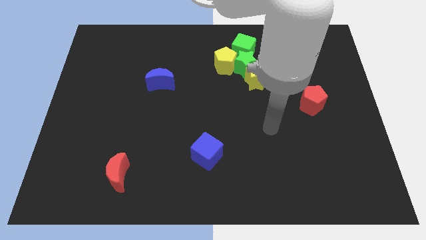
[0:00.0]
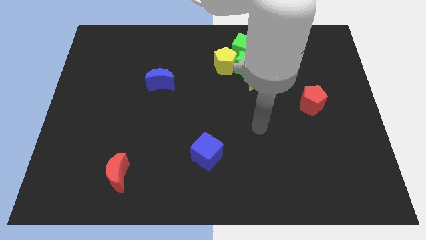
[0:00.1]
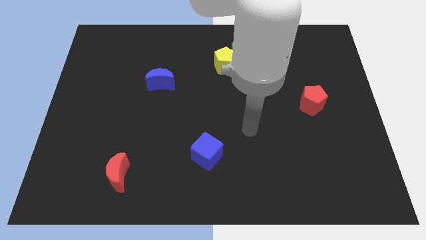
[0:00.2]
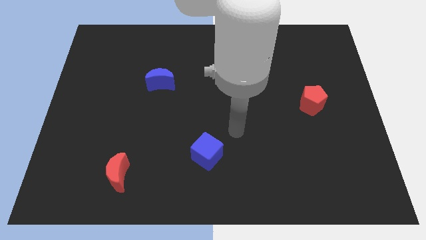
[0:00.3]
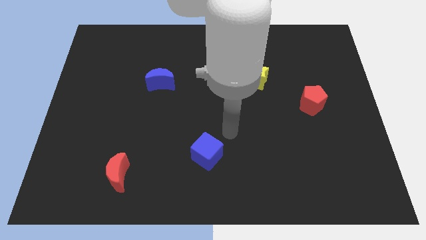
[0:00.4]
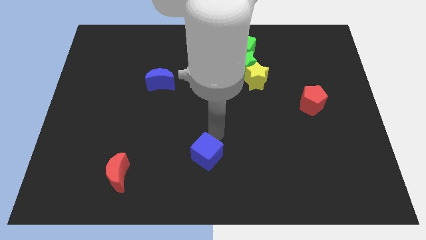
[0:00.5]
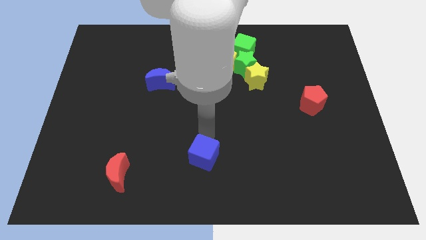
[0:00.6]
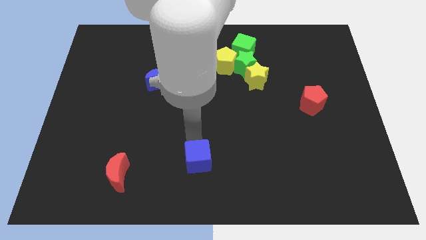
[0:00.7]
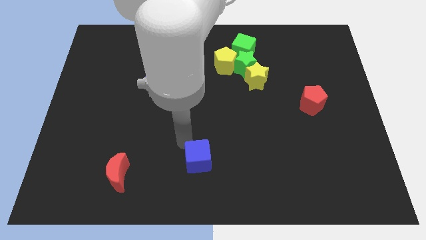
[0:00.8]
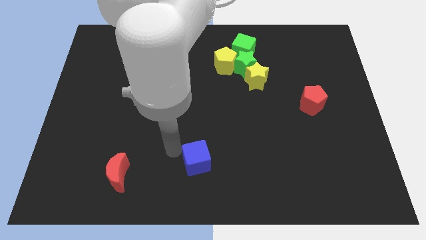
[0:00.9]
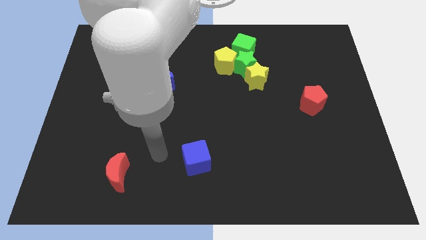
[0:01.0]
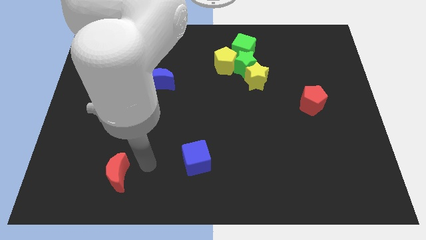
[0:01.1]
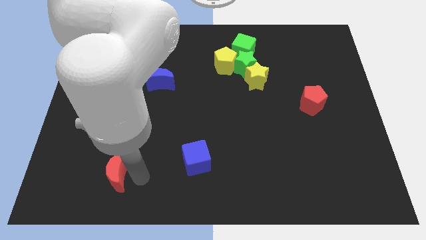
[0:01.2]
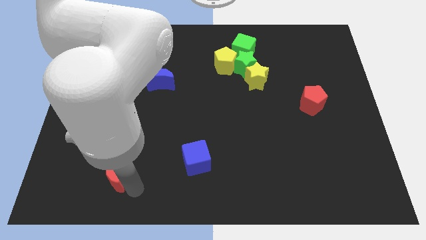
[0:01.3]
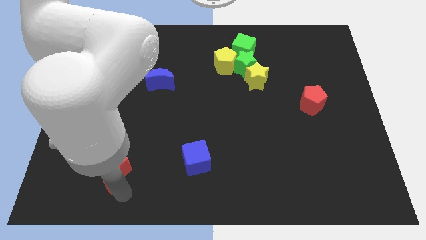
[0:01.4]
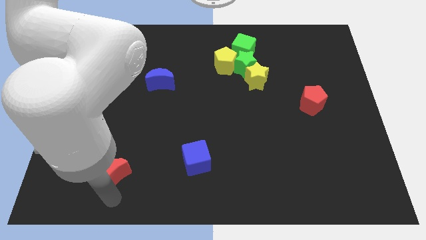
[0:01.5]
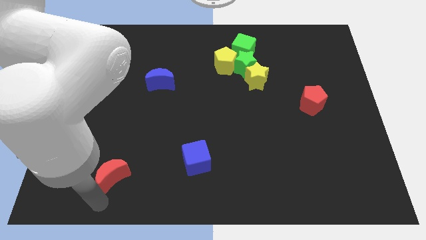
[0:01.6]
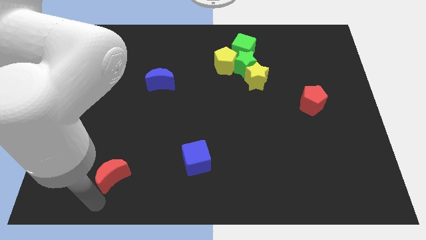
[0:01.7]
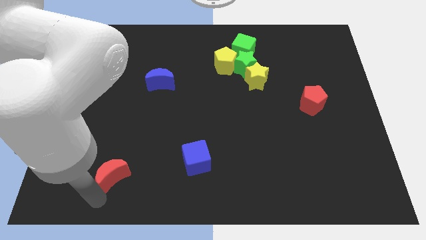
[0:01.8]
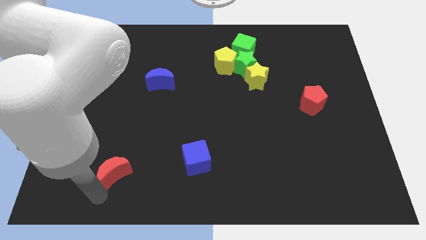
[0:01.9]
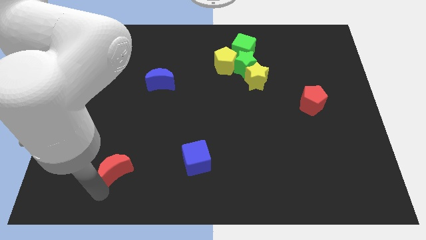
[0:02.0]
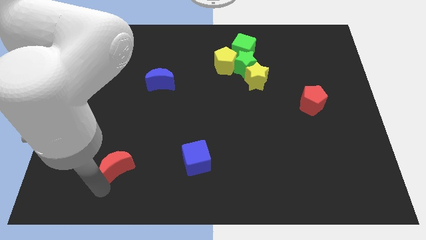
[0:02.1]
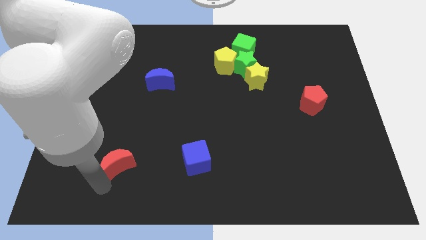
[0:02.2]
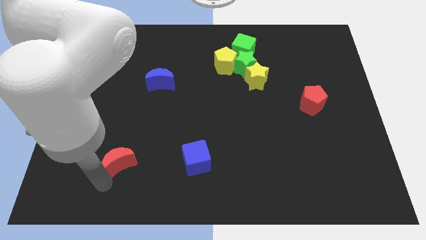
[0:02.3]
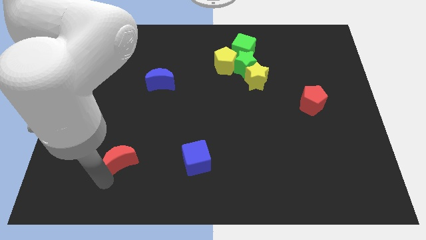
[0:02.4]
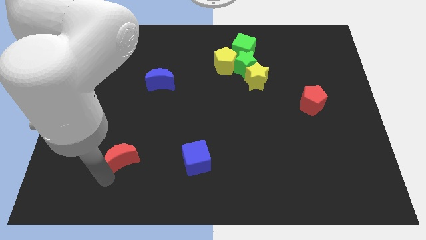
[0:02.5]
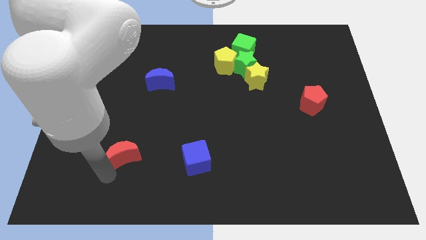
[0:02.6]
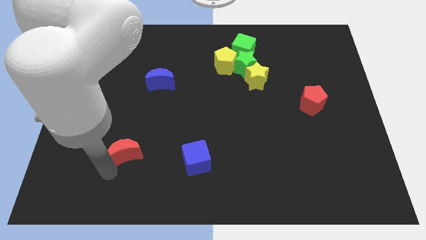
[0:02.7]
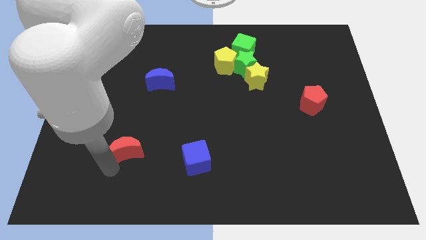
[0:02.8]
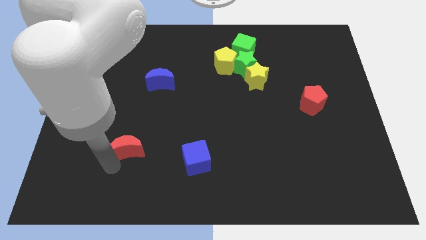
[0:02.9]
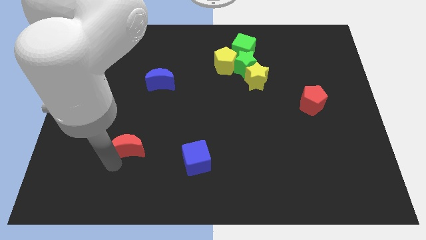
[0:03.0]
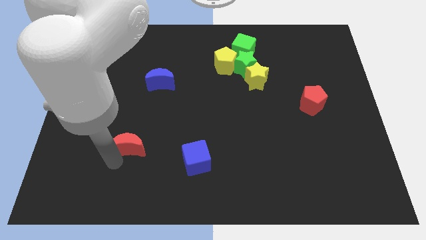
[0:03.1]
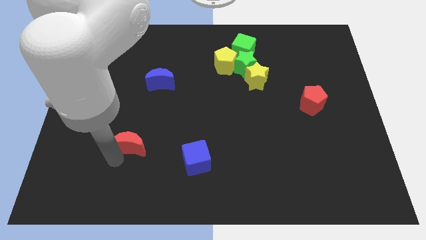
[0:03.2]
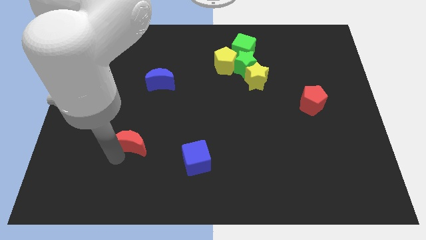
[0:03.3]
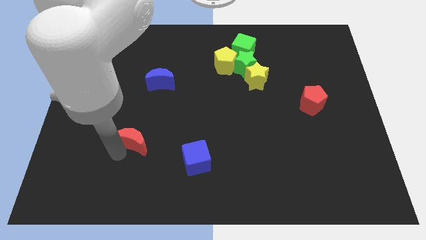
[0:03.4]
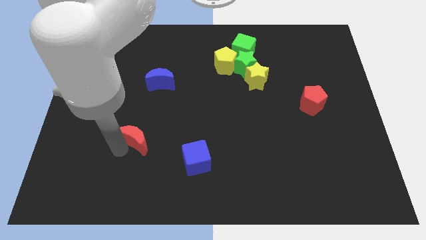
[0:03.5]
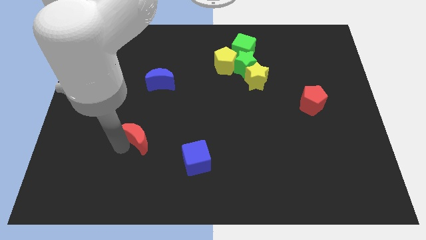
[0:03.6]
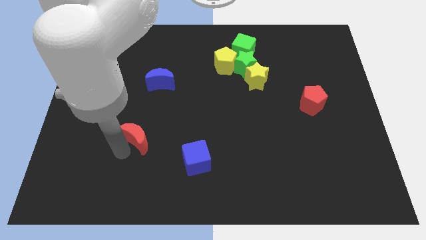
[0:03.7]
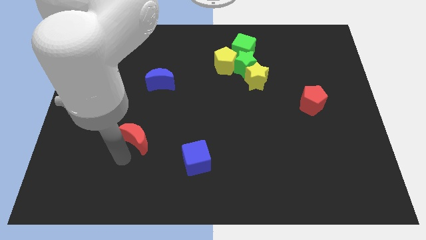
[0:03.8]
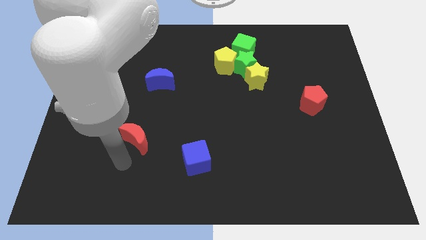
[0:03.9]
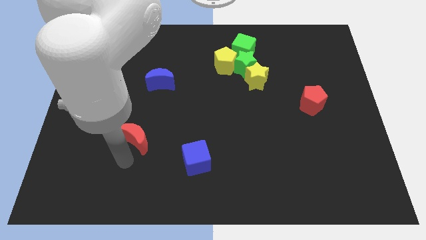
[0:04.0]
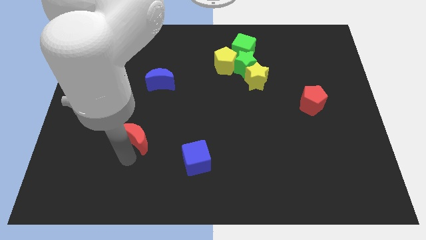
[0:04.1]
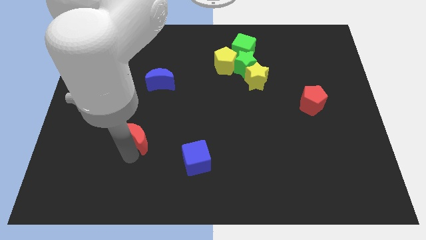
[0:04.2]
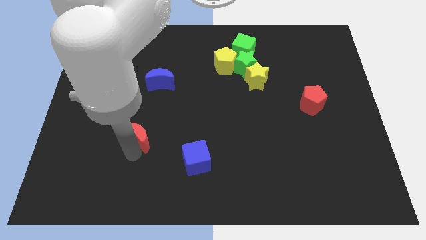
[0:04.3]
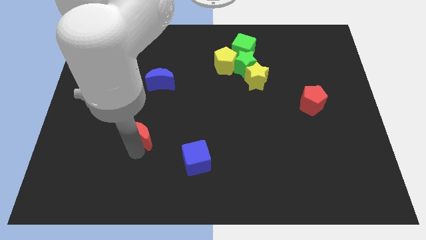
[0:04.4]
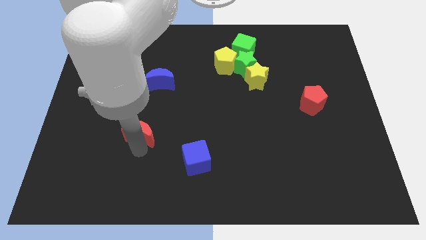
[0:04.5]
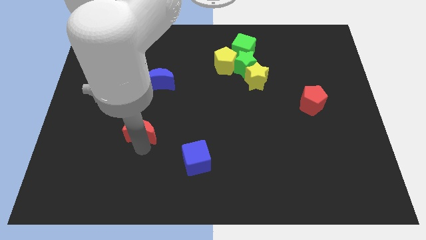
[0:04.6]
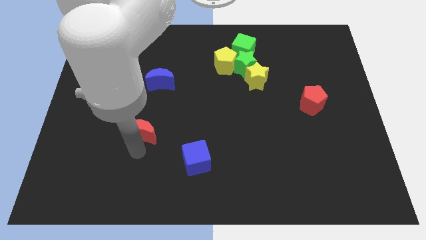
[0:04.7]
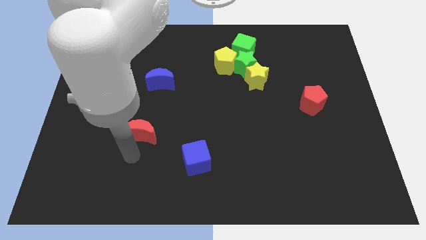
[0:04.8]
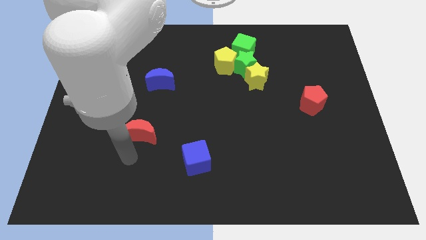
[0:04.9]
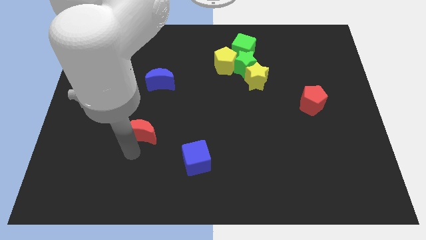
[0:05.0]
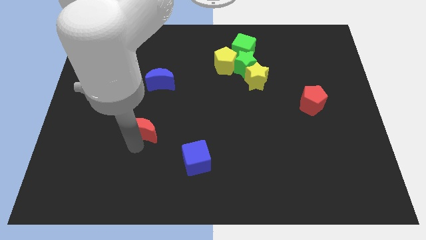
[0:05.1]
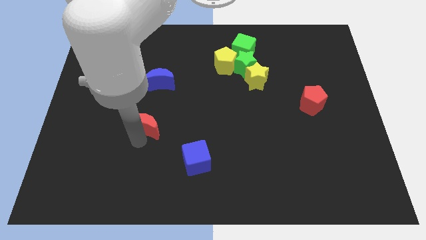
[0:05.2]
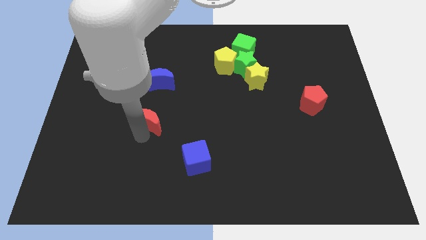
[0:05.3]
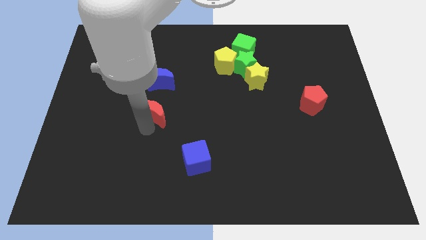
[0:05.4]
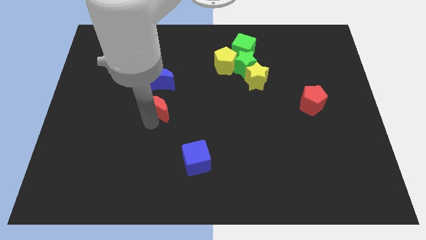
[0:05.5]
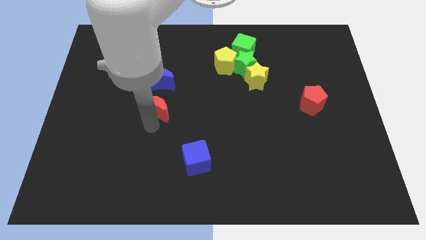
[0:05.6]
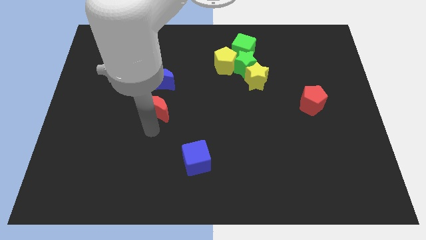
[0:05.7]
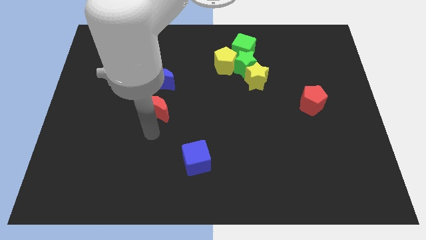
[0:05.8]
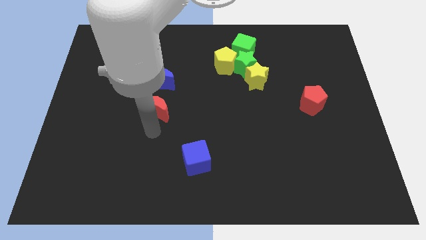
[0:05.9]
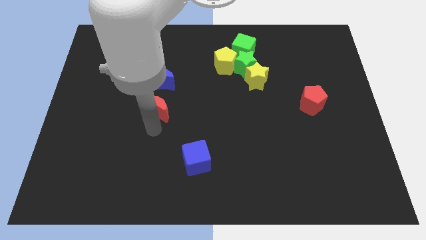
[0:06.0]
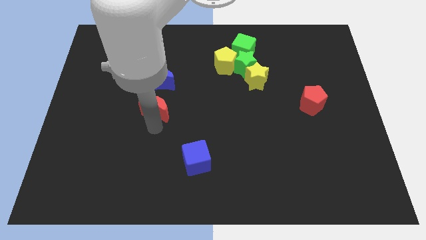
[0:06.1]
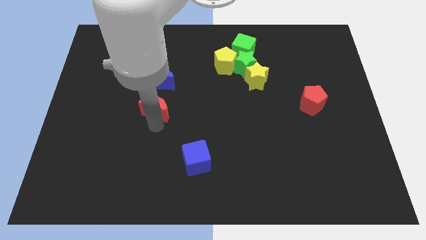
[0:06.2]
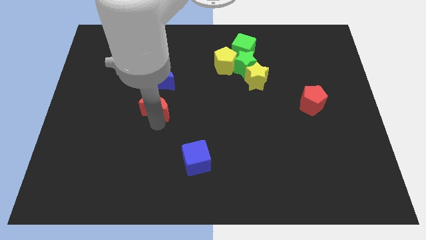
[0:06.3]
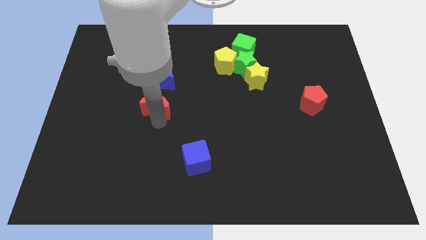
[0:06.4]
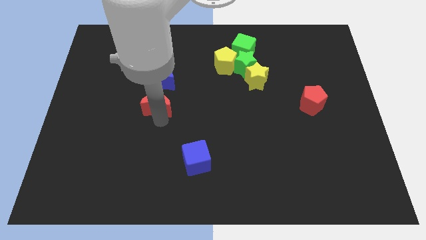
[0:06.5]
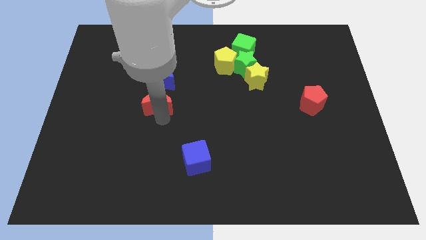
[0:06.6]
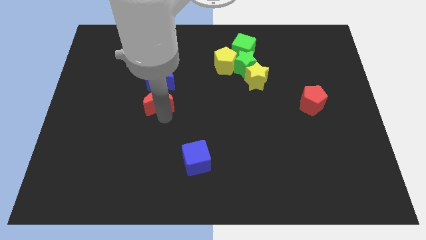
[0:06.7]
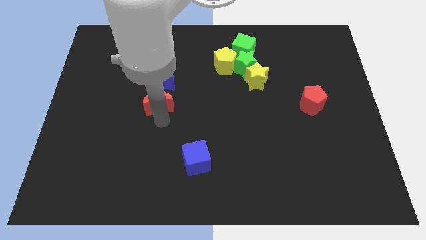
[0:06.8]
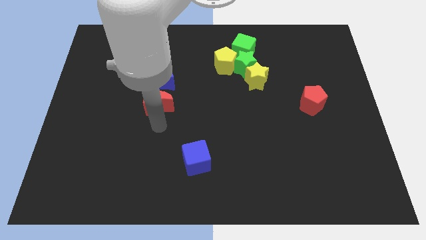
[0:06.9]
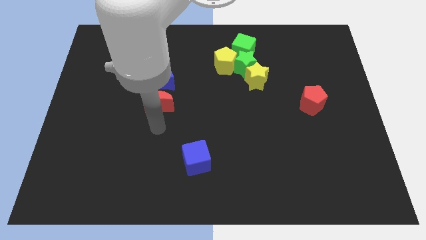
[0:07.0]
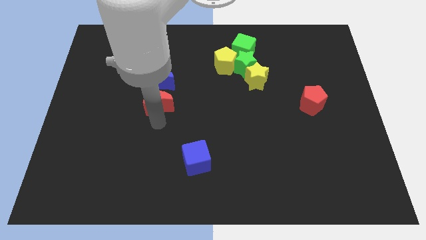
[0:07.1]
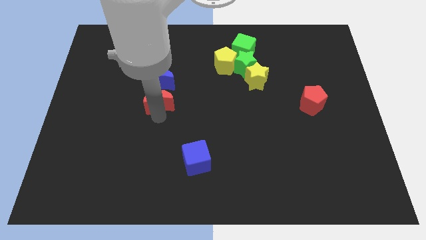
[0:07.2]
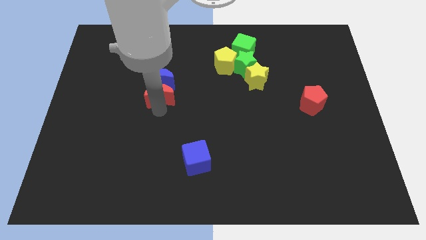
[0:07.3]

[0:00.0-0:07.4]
move the red moon next to the blue moon
